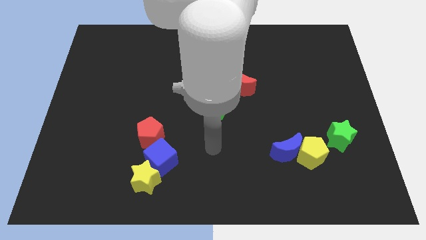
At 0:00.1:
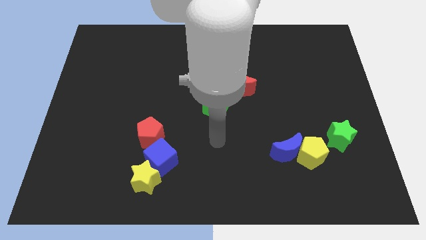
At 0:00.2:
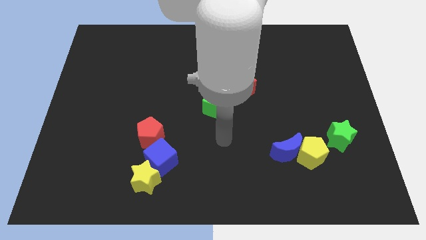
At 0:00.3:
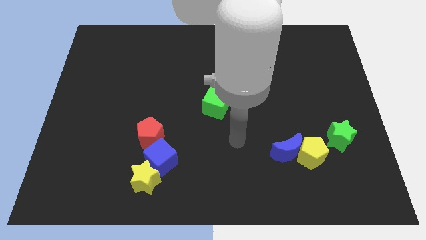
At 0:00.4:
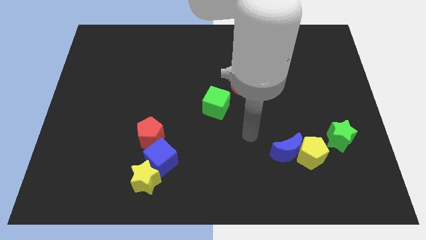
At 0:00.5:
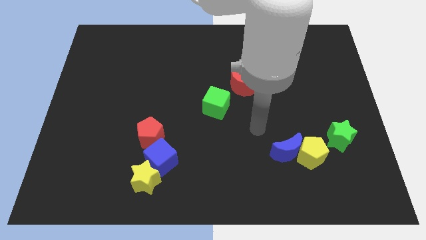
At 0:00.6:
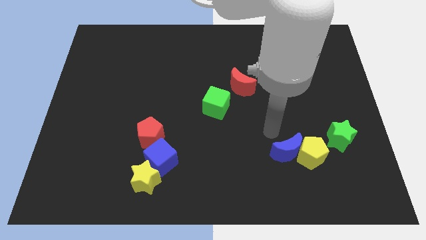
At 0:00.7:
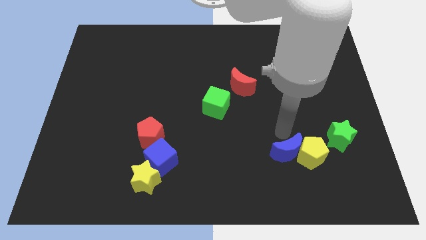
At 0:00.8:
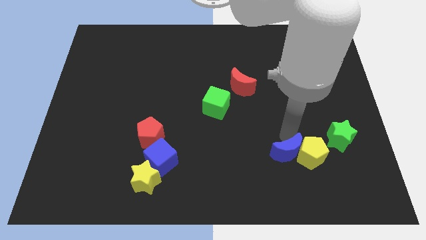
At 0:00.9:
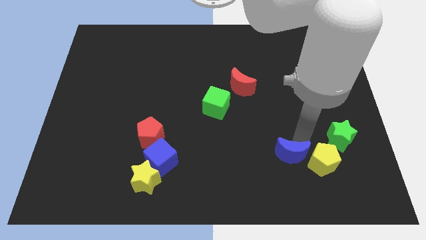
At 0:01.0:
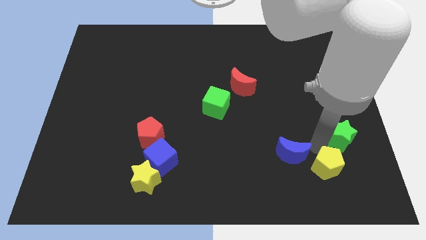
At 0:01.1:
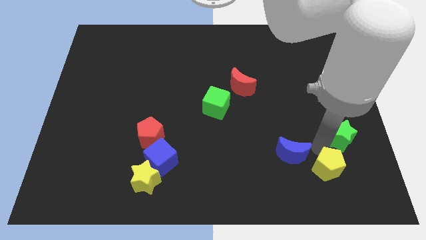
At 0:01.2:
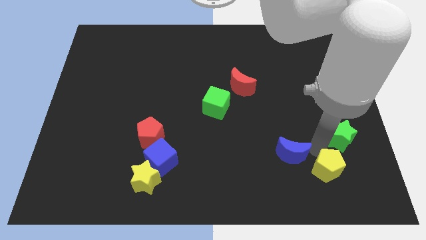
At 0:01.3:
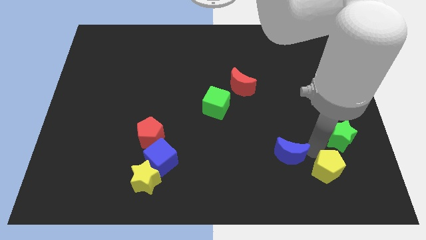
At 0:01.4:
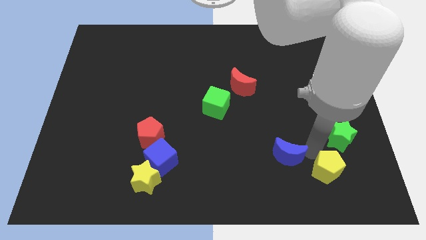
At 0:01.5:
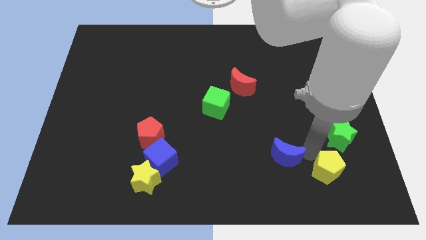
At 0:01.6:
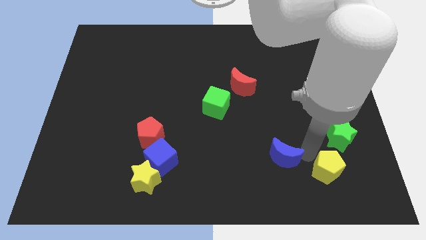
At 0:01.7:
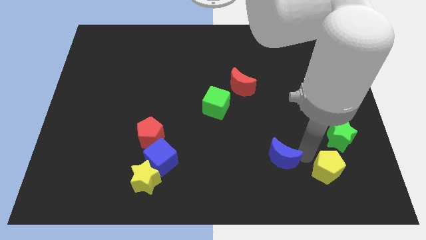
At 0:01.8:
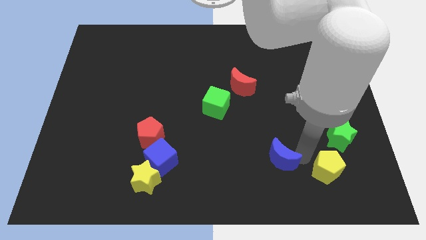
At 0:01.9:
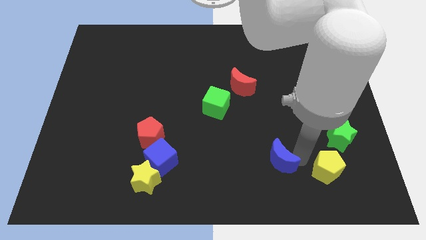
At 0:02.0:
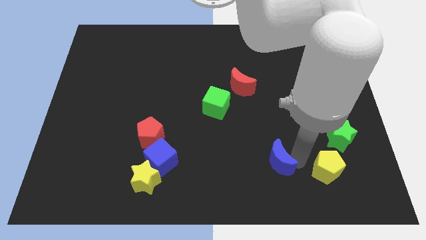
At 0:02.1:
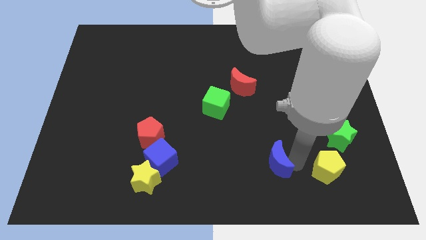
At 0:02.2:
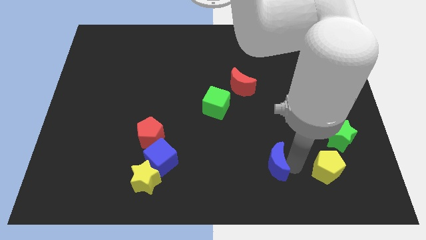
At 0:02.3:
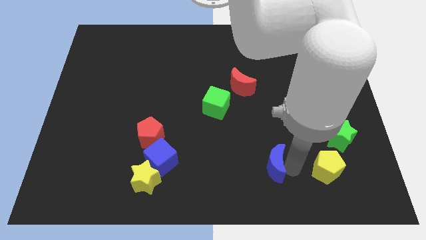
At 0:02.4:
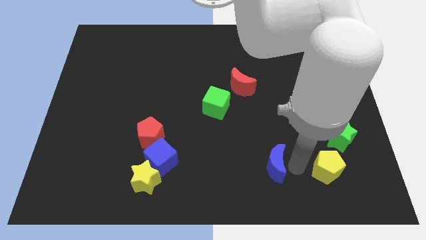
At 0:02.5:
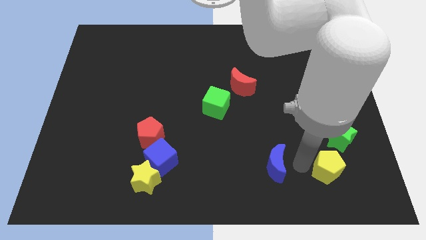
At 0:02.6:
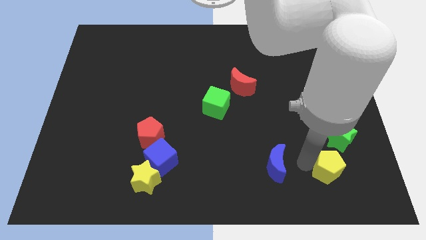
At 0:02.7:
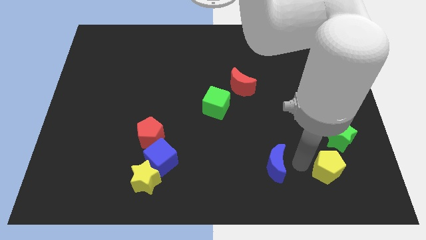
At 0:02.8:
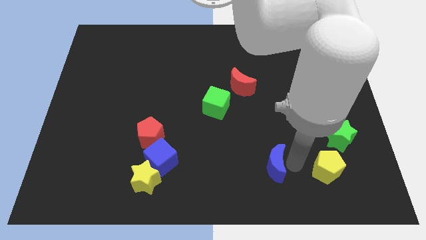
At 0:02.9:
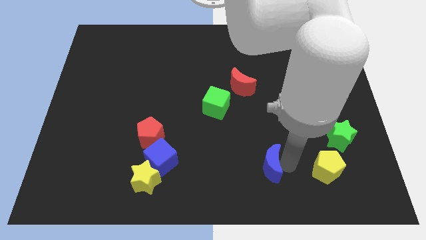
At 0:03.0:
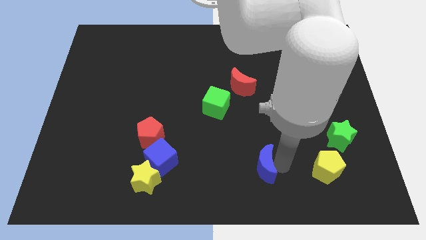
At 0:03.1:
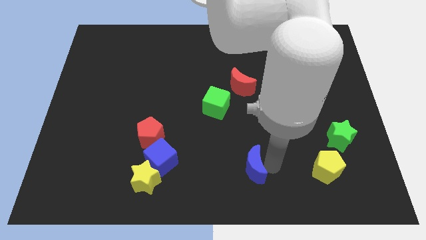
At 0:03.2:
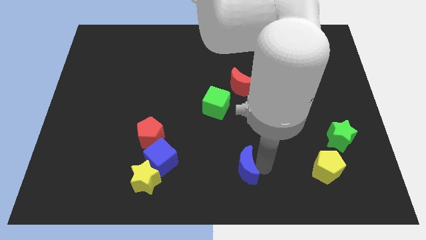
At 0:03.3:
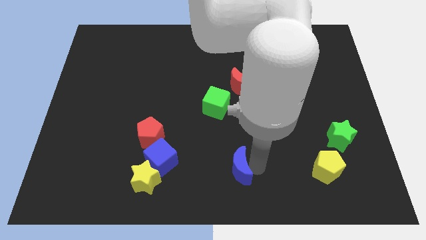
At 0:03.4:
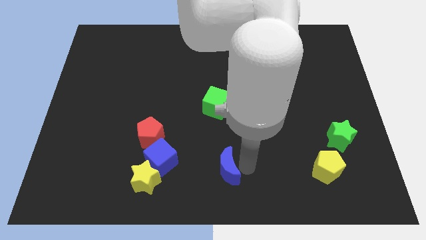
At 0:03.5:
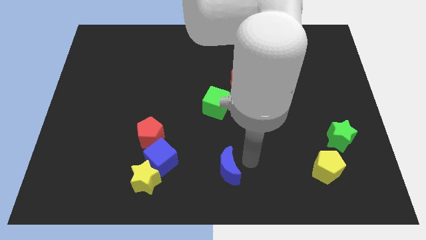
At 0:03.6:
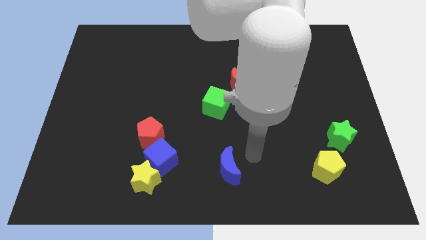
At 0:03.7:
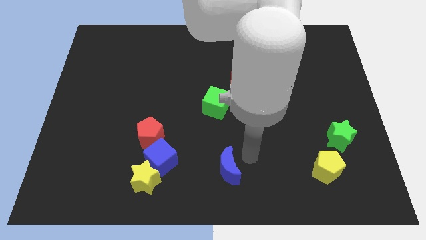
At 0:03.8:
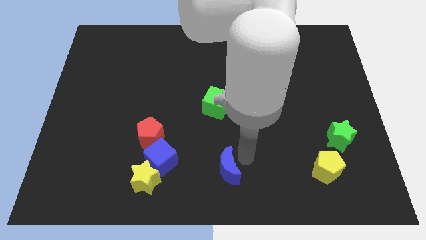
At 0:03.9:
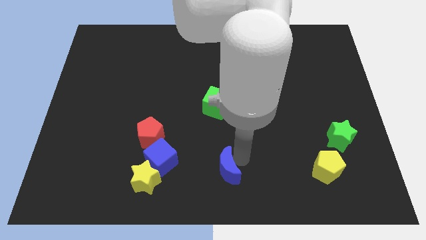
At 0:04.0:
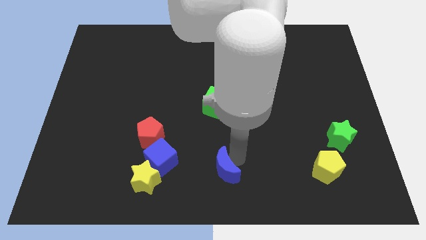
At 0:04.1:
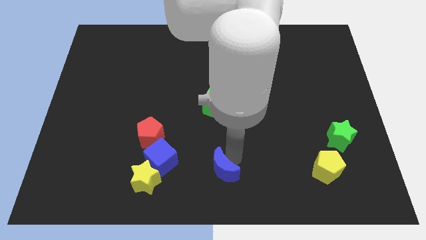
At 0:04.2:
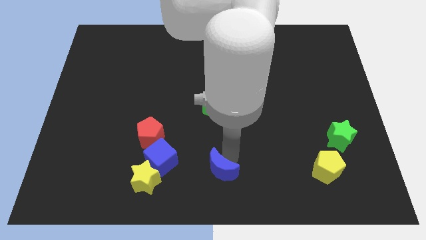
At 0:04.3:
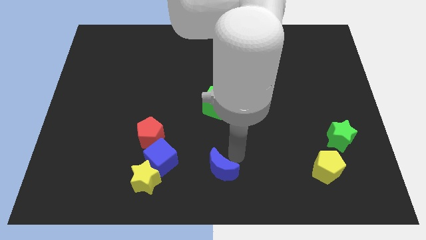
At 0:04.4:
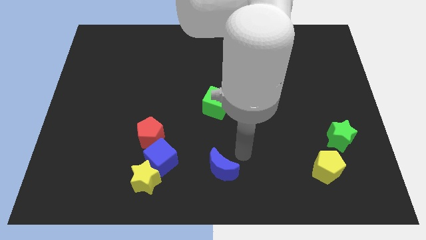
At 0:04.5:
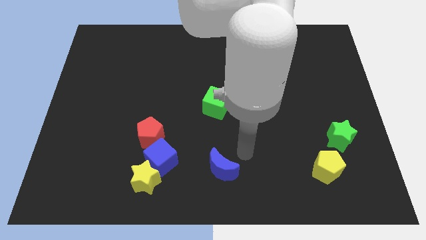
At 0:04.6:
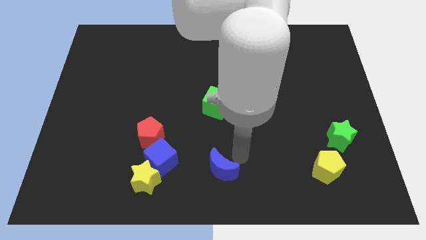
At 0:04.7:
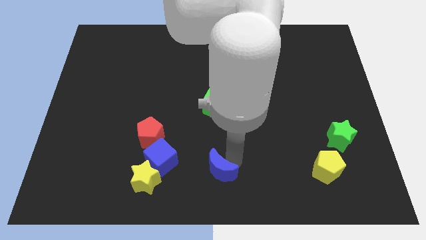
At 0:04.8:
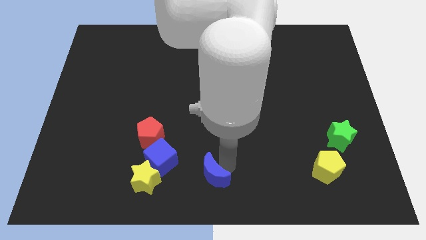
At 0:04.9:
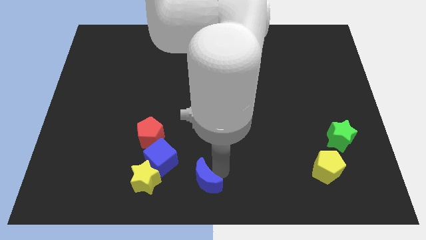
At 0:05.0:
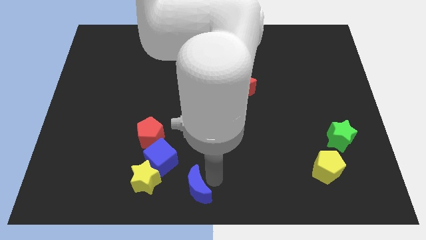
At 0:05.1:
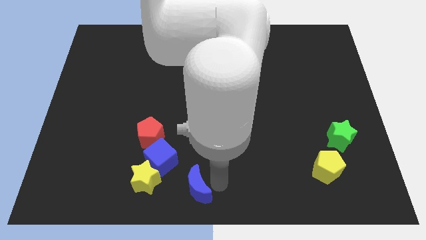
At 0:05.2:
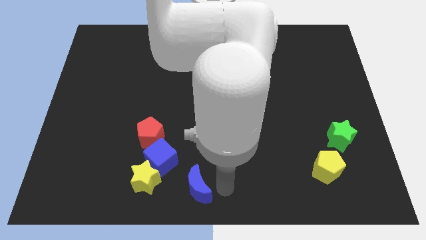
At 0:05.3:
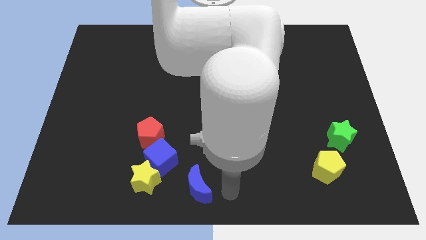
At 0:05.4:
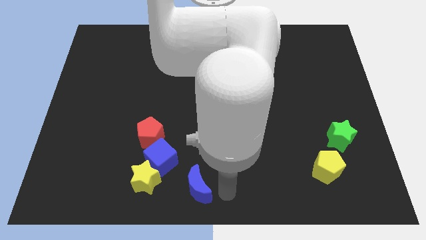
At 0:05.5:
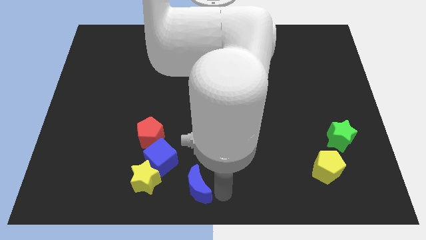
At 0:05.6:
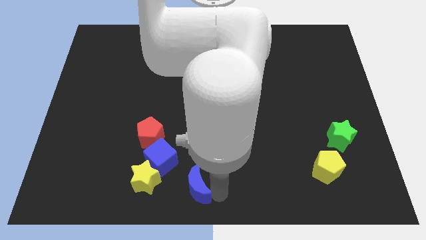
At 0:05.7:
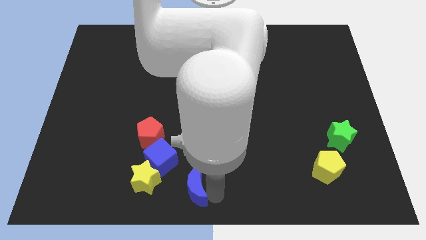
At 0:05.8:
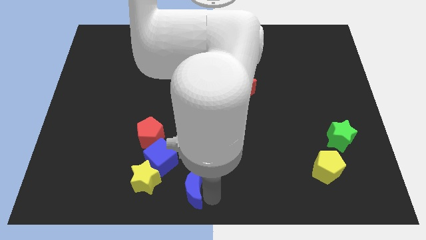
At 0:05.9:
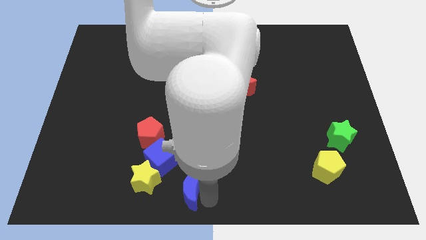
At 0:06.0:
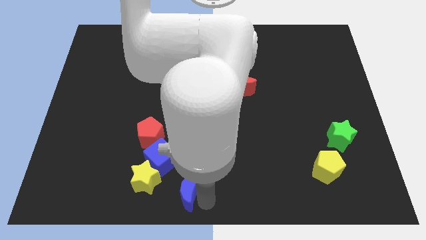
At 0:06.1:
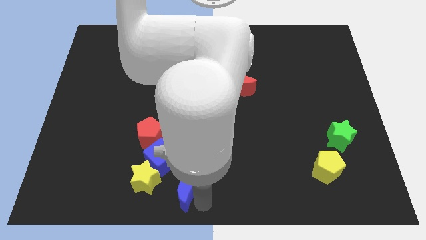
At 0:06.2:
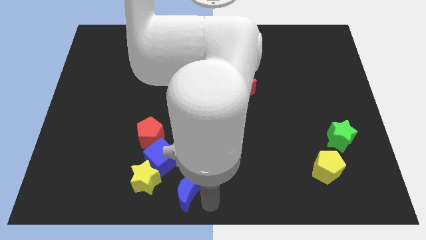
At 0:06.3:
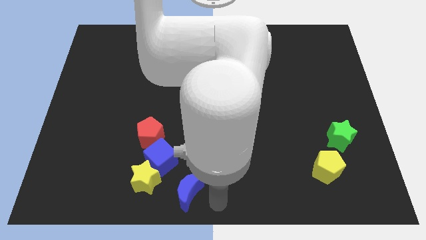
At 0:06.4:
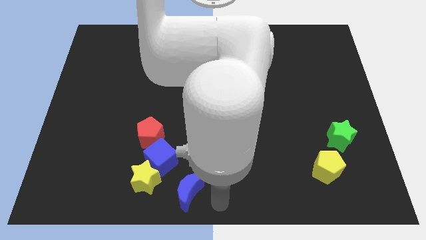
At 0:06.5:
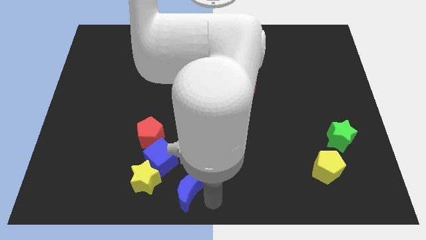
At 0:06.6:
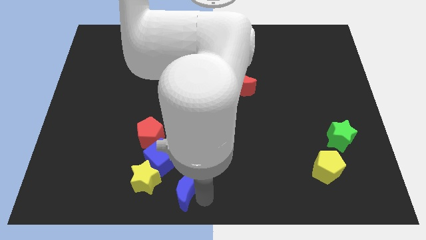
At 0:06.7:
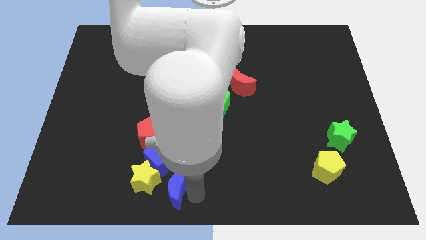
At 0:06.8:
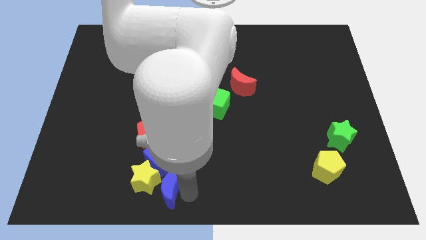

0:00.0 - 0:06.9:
move the blue moon to the yellow star

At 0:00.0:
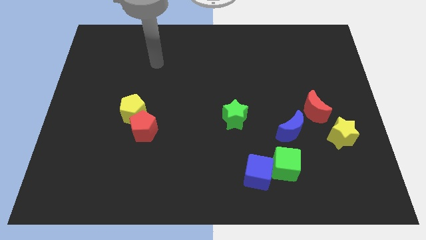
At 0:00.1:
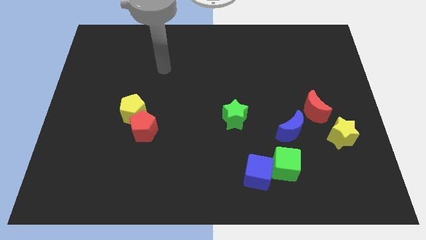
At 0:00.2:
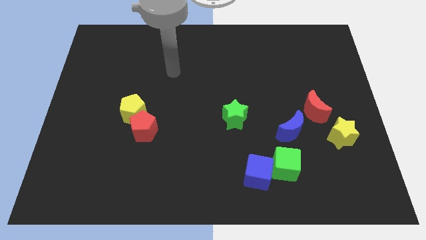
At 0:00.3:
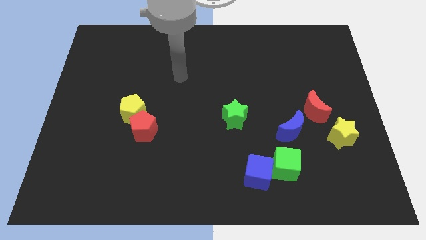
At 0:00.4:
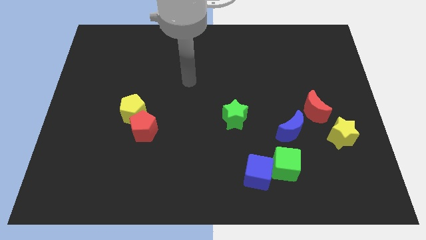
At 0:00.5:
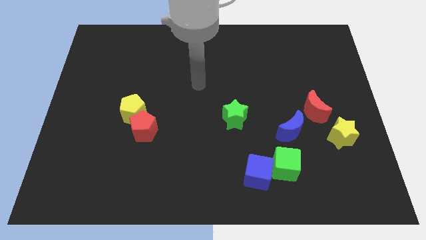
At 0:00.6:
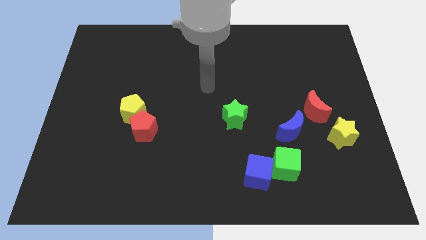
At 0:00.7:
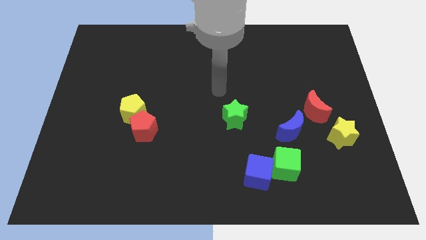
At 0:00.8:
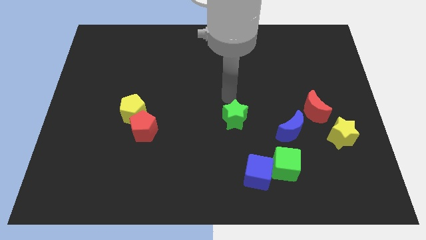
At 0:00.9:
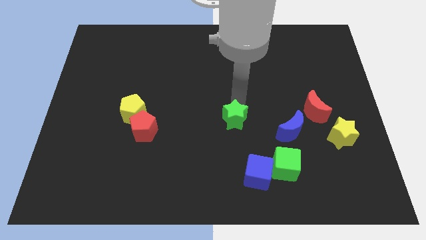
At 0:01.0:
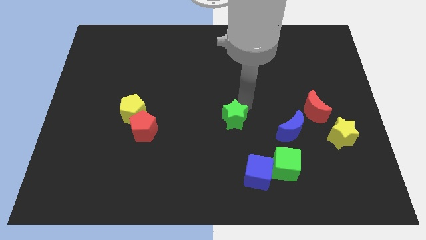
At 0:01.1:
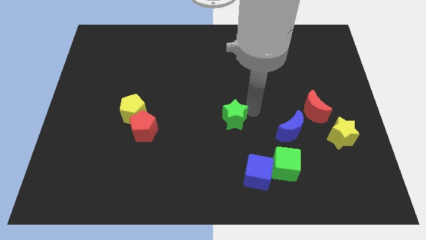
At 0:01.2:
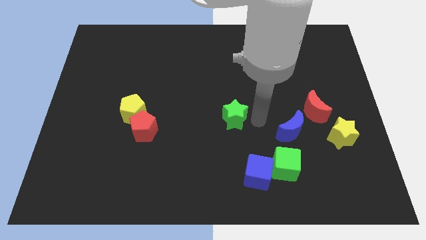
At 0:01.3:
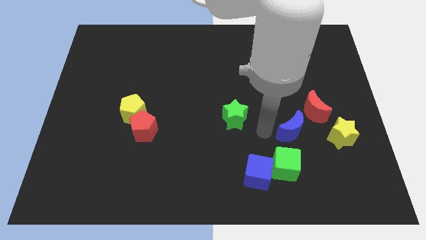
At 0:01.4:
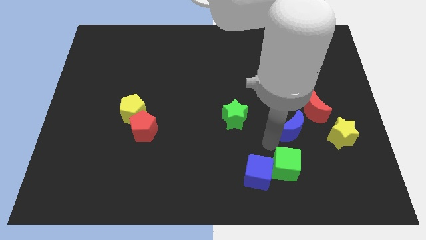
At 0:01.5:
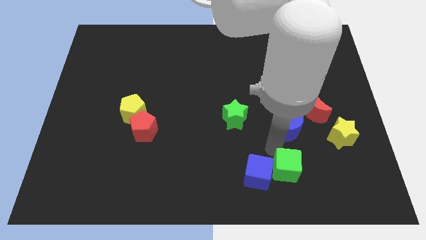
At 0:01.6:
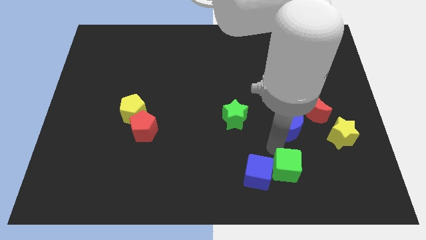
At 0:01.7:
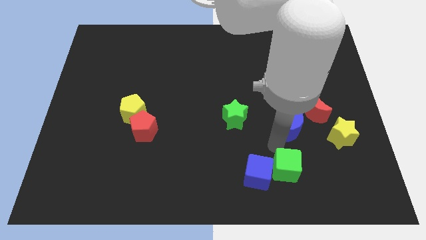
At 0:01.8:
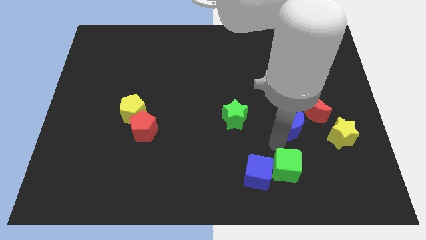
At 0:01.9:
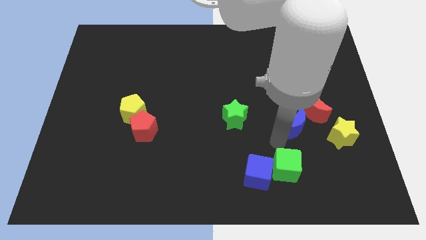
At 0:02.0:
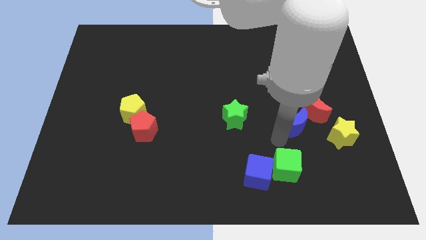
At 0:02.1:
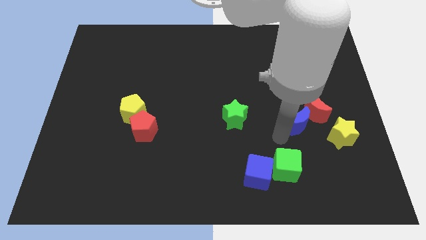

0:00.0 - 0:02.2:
move the blue moon close to the red moon
